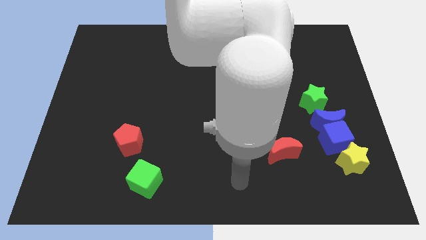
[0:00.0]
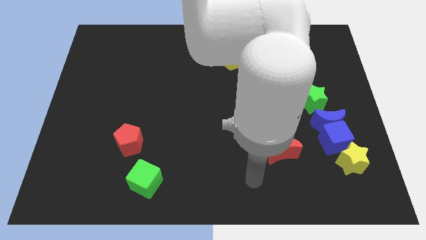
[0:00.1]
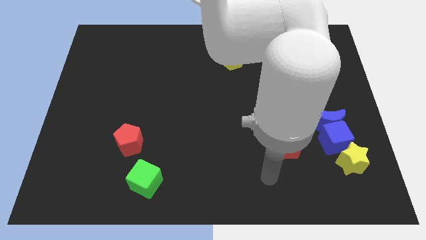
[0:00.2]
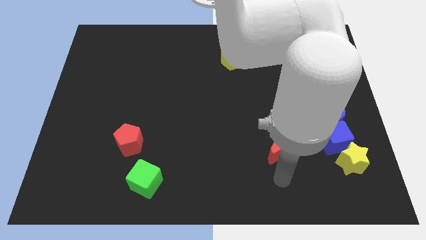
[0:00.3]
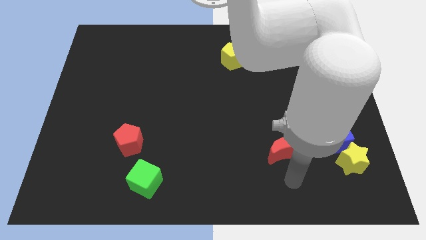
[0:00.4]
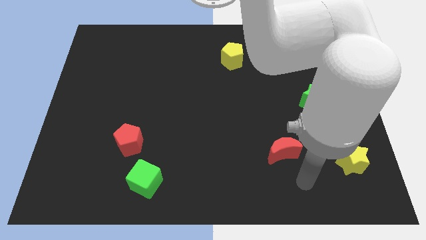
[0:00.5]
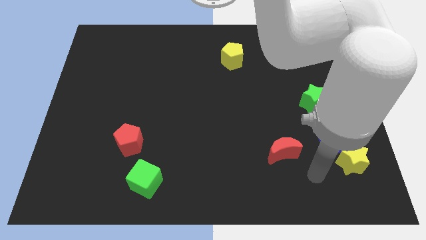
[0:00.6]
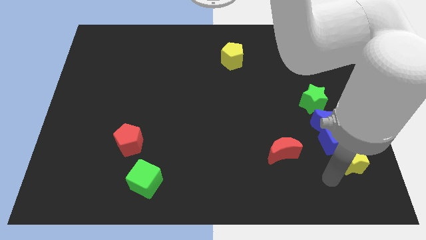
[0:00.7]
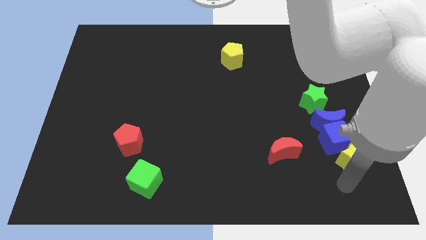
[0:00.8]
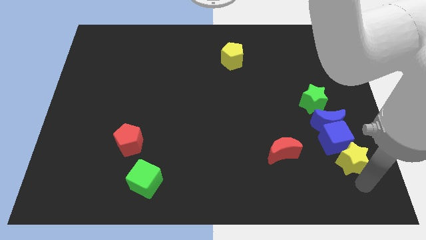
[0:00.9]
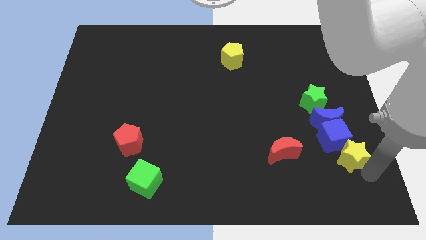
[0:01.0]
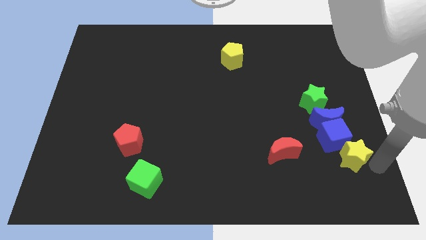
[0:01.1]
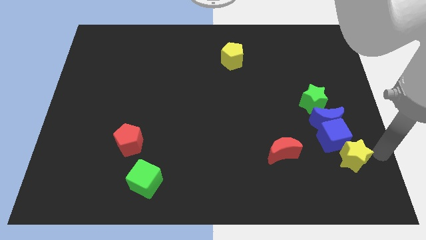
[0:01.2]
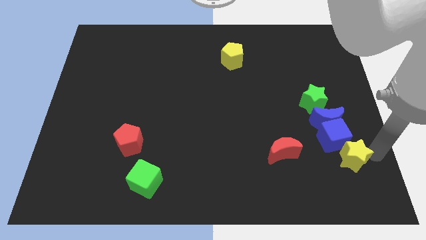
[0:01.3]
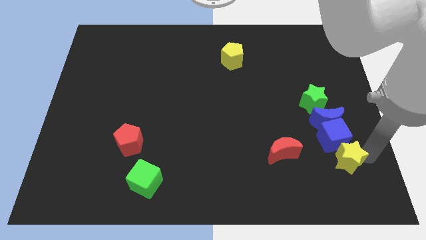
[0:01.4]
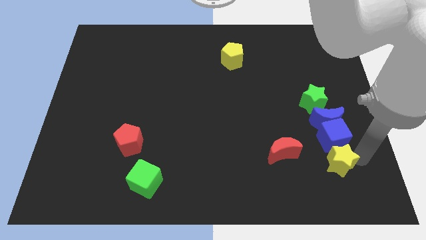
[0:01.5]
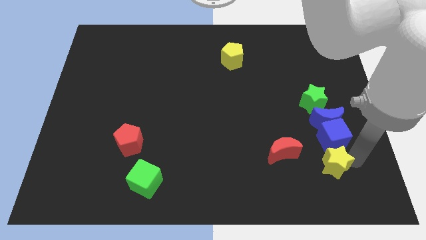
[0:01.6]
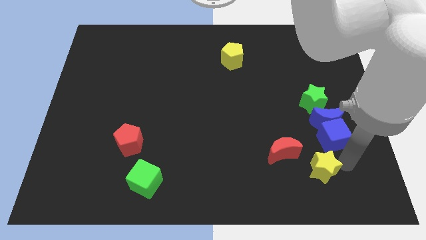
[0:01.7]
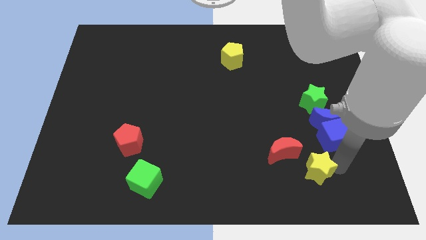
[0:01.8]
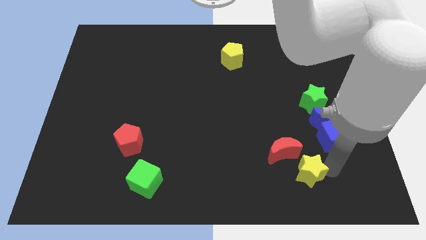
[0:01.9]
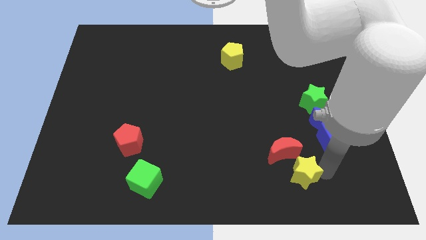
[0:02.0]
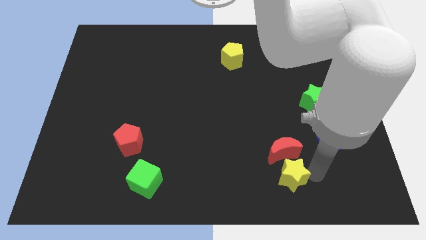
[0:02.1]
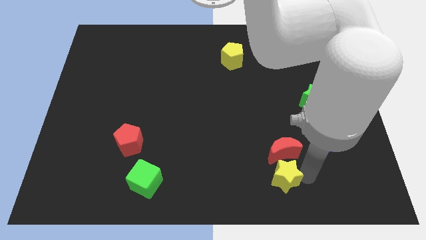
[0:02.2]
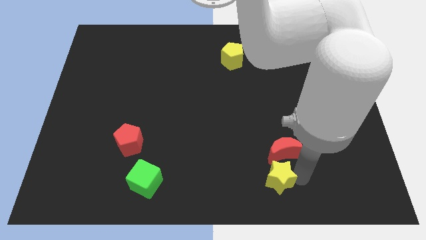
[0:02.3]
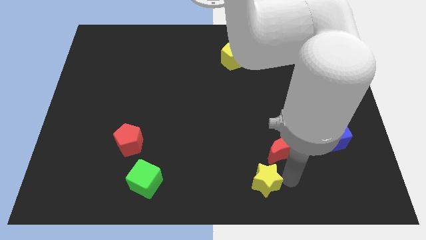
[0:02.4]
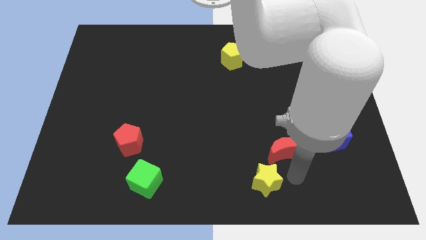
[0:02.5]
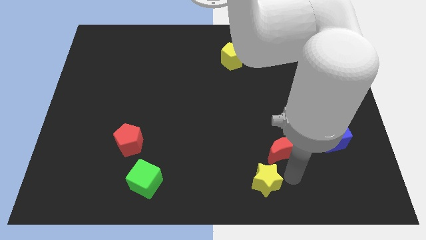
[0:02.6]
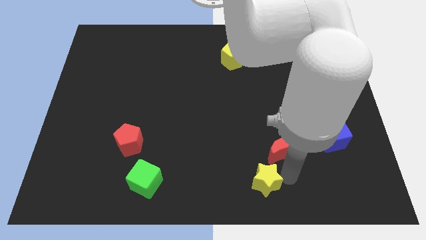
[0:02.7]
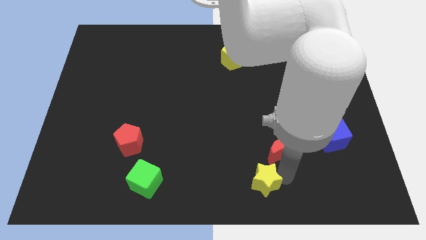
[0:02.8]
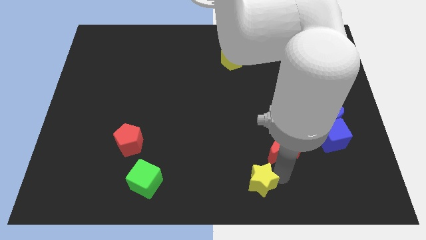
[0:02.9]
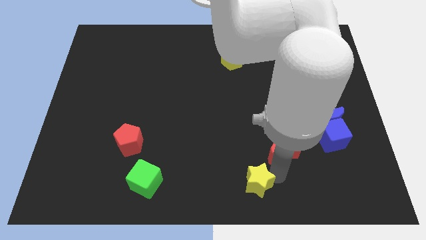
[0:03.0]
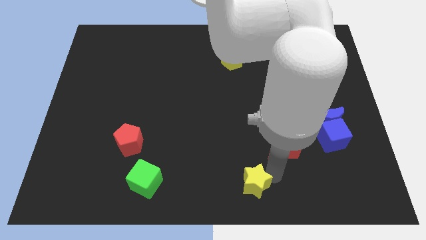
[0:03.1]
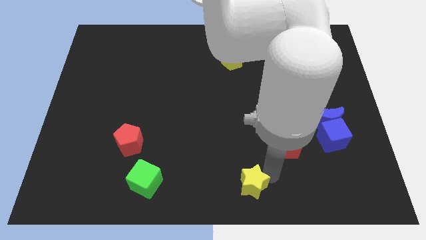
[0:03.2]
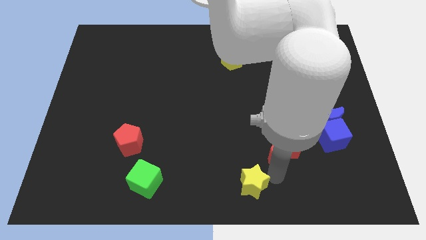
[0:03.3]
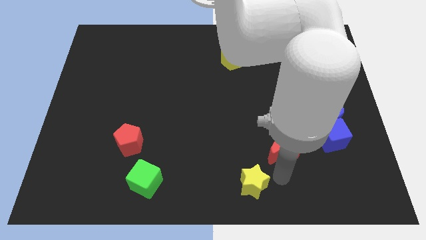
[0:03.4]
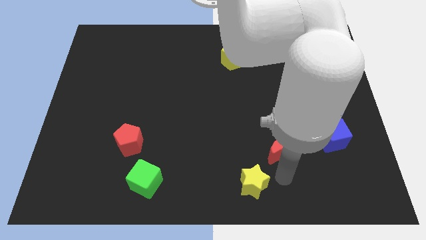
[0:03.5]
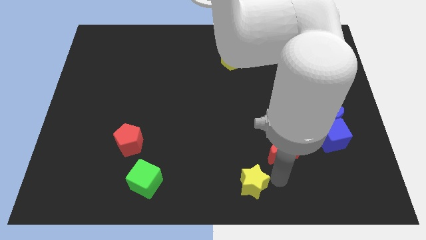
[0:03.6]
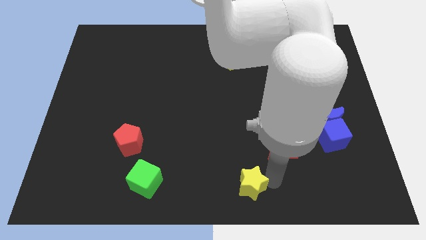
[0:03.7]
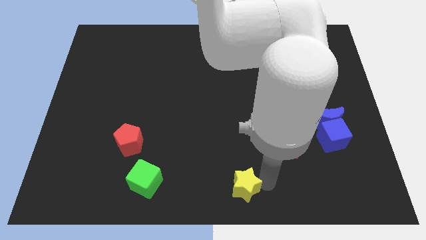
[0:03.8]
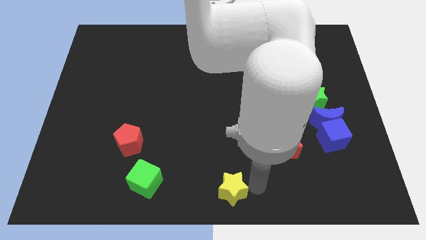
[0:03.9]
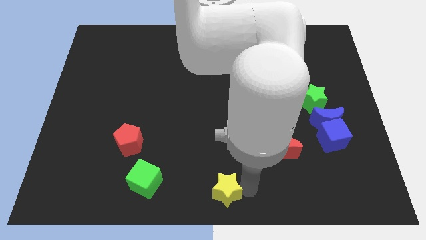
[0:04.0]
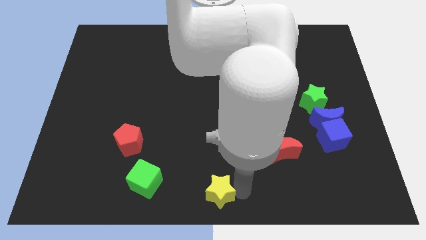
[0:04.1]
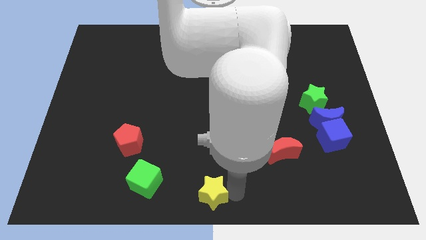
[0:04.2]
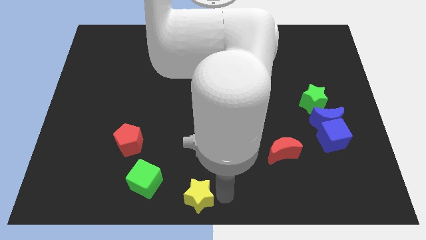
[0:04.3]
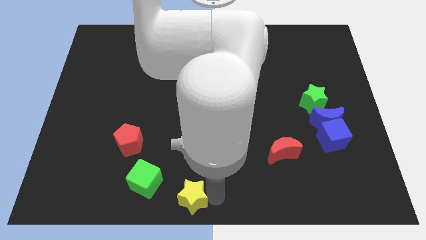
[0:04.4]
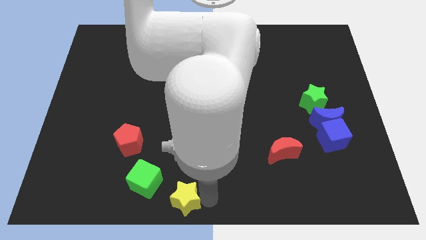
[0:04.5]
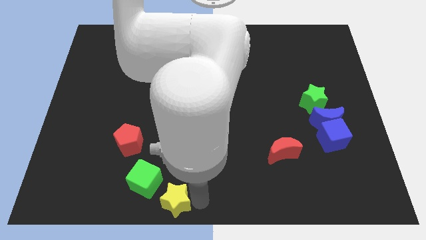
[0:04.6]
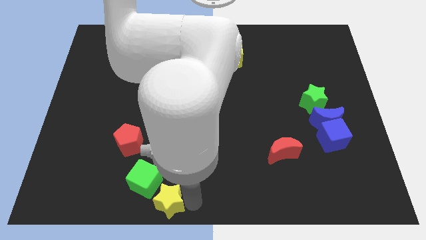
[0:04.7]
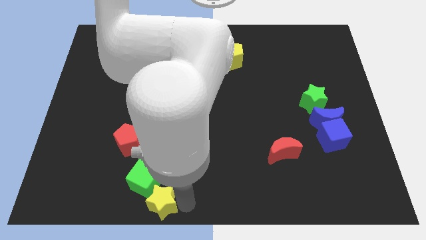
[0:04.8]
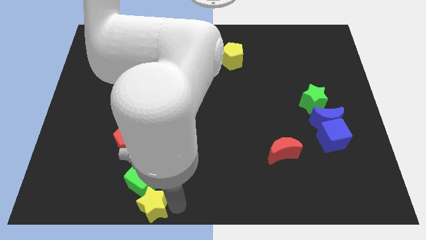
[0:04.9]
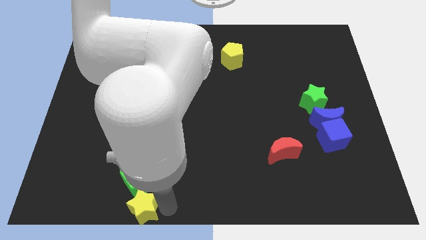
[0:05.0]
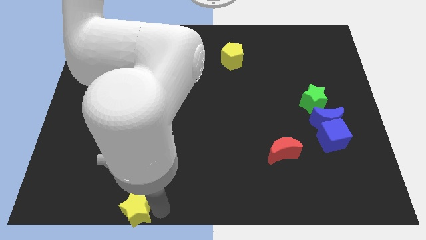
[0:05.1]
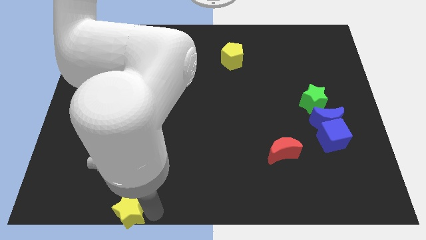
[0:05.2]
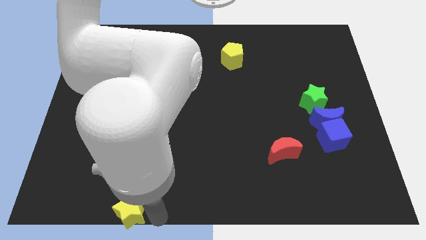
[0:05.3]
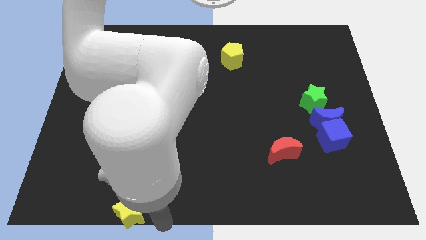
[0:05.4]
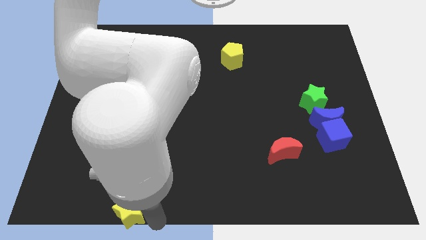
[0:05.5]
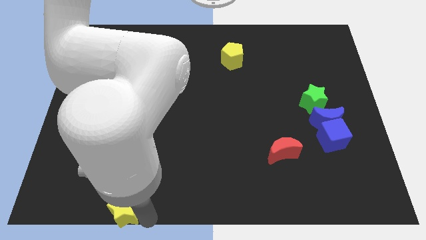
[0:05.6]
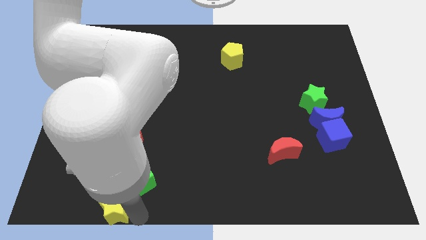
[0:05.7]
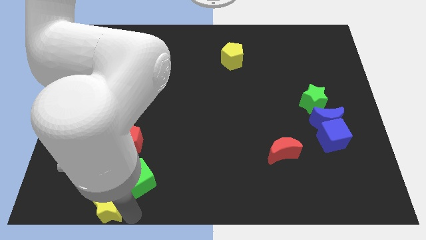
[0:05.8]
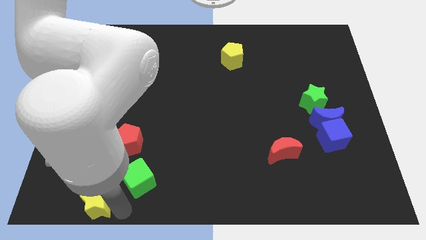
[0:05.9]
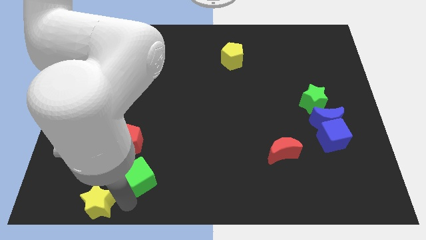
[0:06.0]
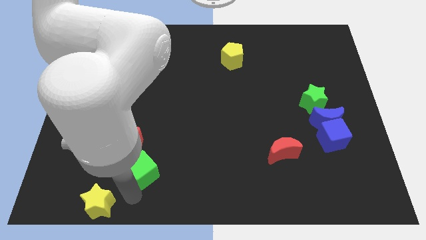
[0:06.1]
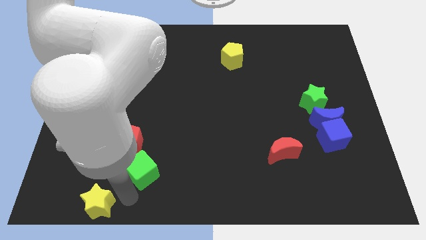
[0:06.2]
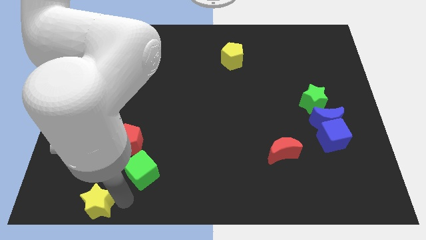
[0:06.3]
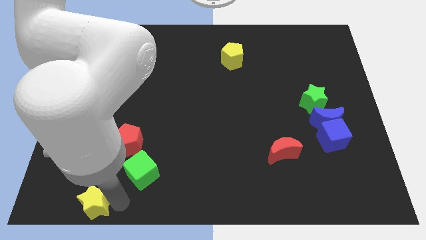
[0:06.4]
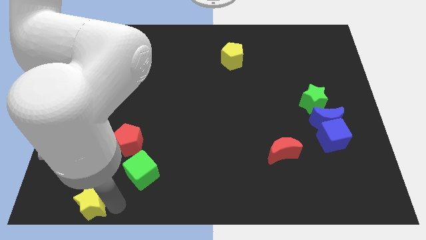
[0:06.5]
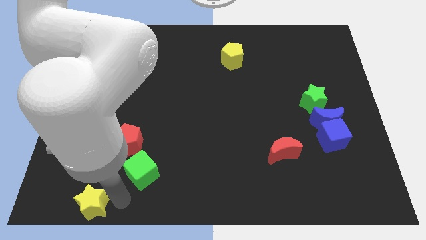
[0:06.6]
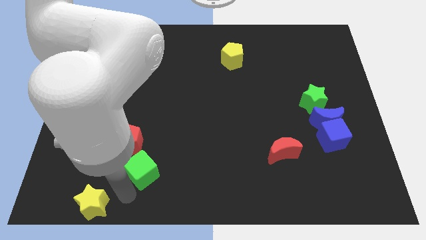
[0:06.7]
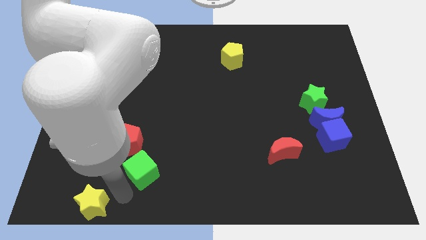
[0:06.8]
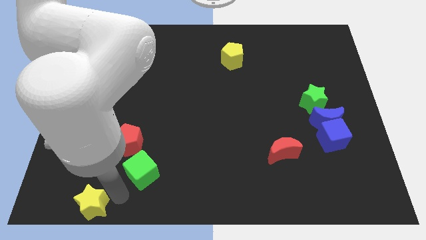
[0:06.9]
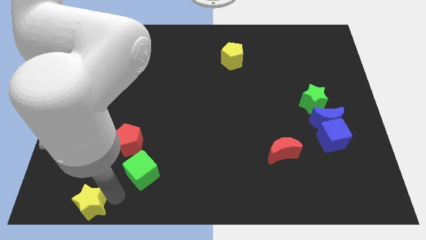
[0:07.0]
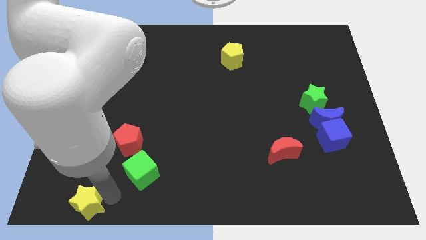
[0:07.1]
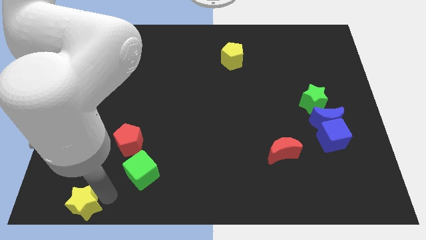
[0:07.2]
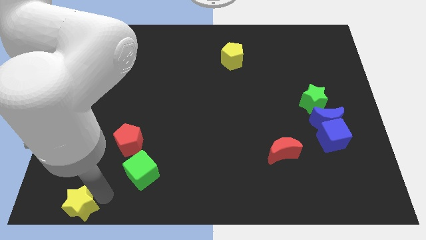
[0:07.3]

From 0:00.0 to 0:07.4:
slide the yellow star to the bottom left of the board

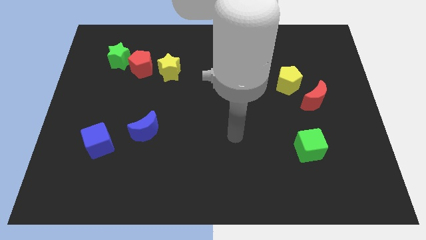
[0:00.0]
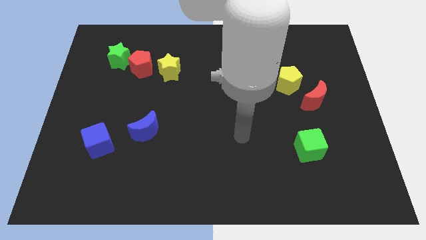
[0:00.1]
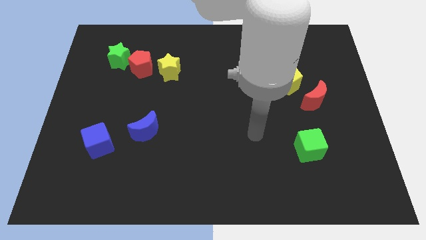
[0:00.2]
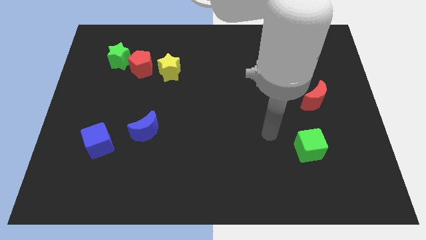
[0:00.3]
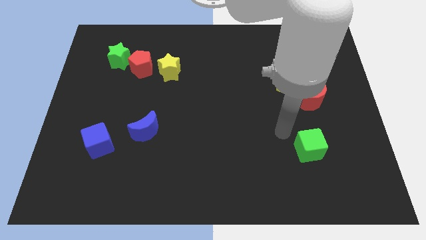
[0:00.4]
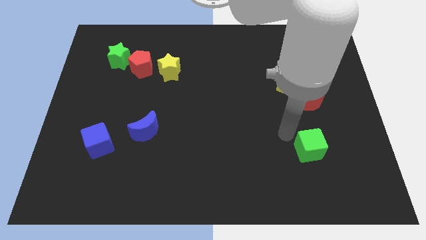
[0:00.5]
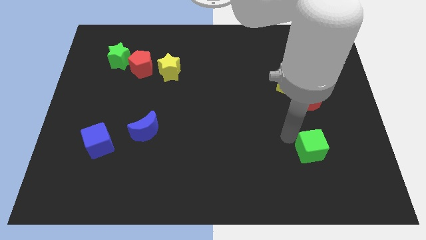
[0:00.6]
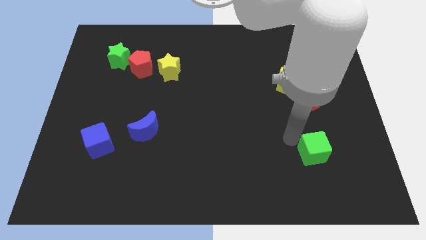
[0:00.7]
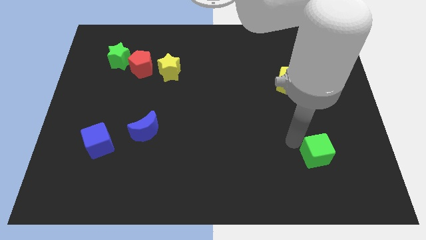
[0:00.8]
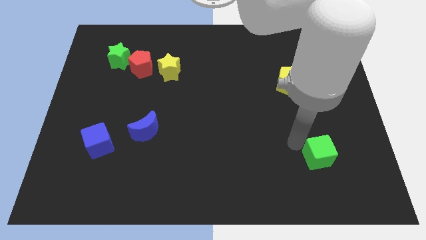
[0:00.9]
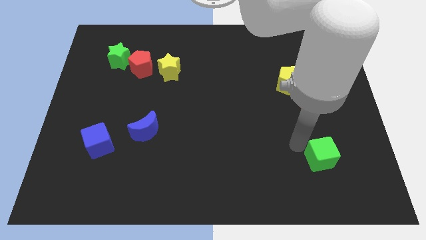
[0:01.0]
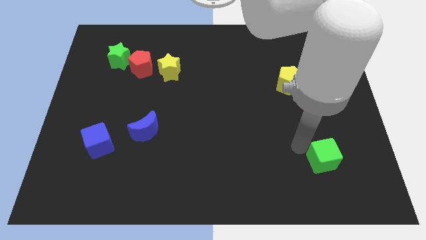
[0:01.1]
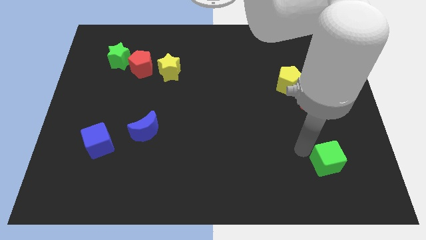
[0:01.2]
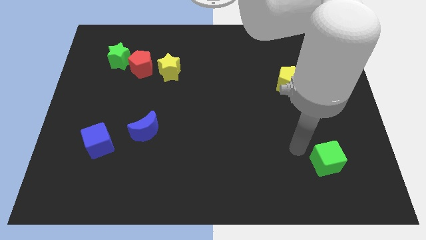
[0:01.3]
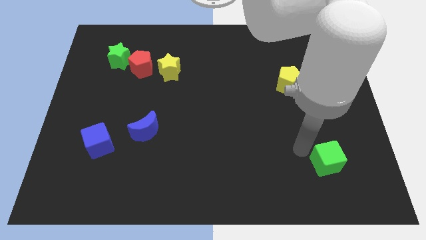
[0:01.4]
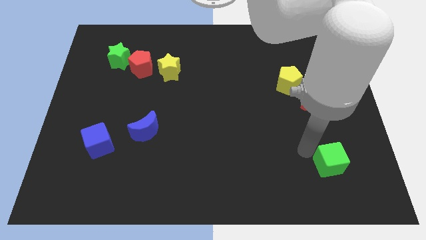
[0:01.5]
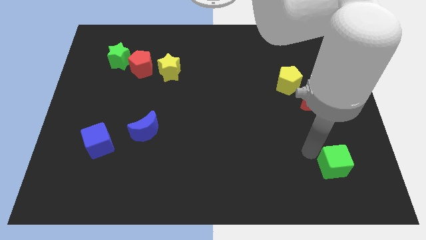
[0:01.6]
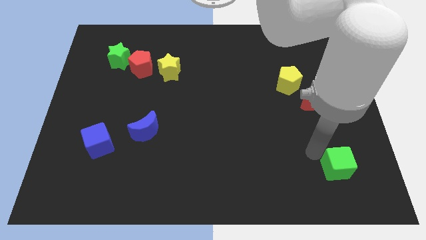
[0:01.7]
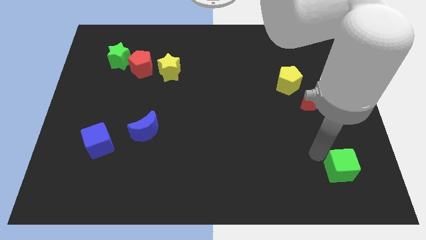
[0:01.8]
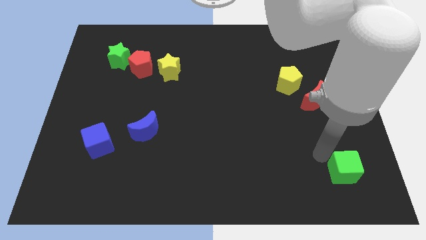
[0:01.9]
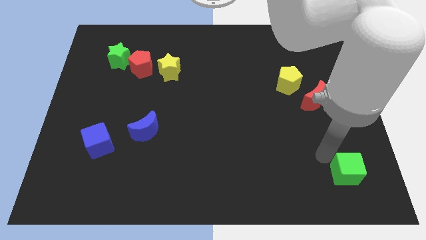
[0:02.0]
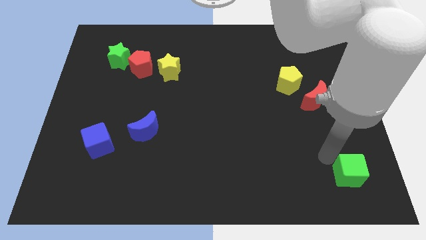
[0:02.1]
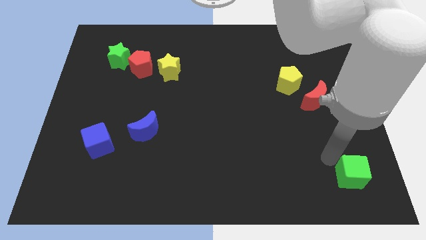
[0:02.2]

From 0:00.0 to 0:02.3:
push the green cube to the bottom right corner
